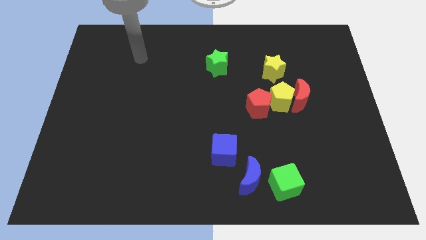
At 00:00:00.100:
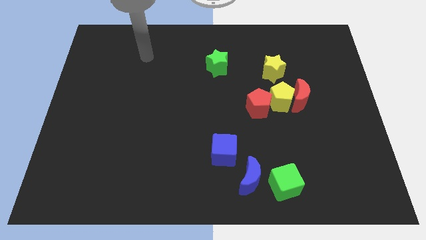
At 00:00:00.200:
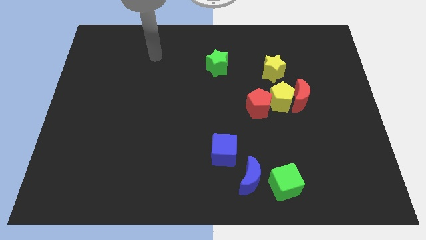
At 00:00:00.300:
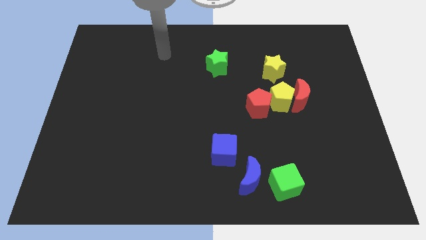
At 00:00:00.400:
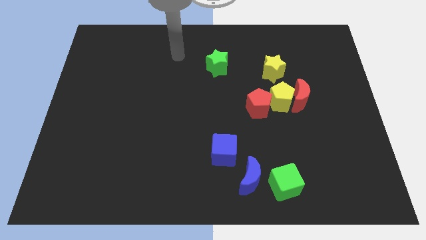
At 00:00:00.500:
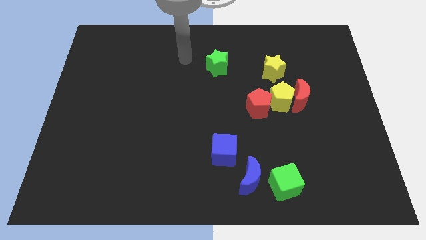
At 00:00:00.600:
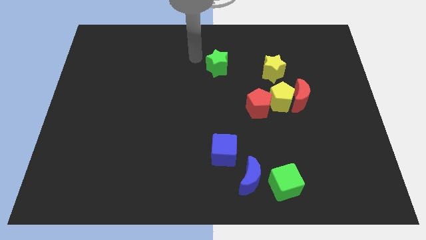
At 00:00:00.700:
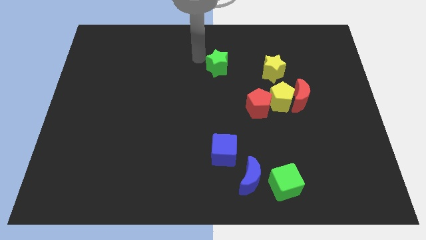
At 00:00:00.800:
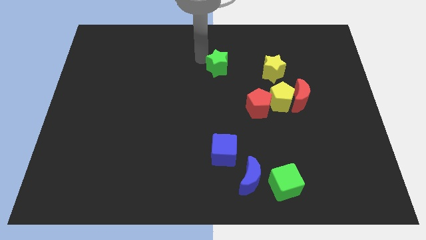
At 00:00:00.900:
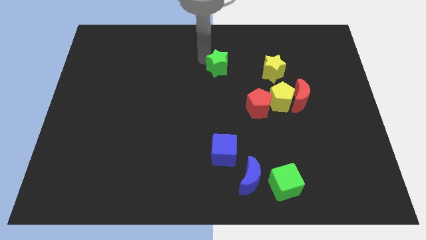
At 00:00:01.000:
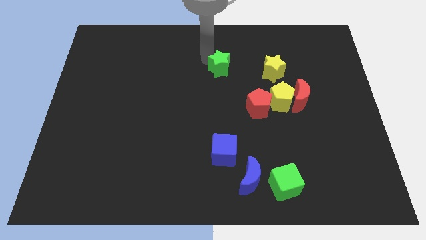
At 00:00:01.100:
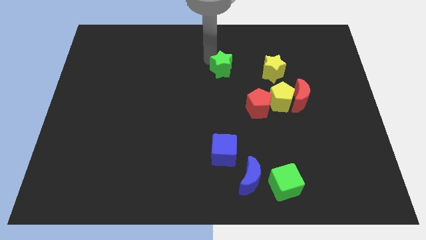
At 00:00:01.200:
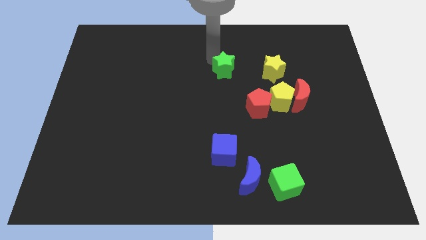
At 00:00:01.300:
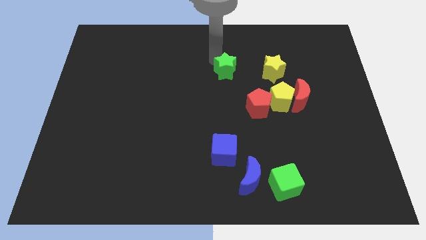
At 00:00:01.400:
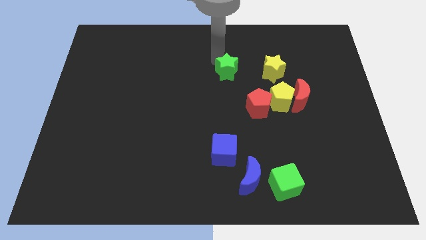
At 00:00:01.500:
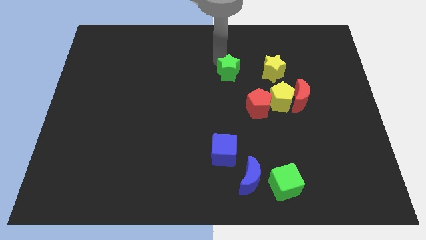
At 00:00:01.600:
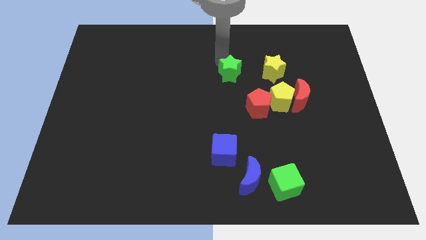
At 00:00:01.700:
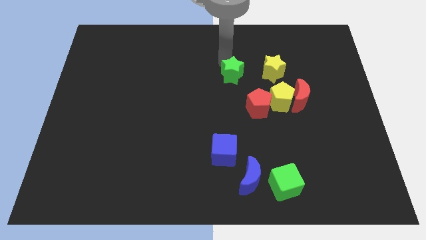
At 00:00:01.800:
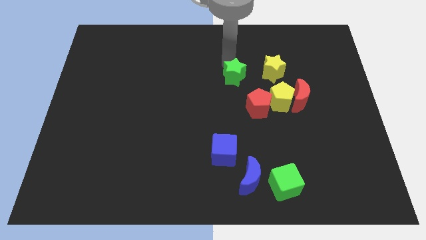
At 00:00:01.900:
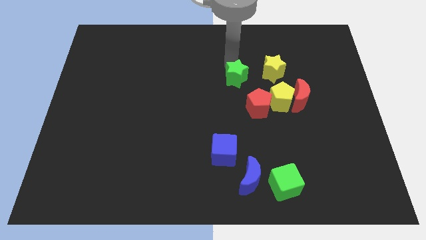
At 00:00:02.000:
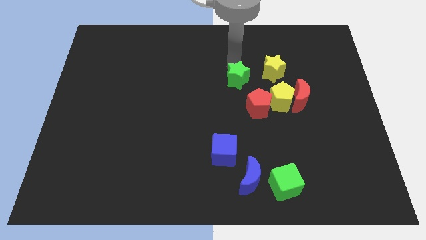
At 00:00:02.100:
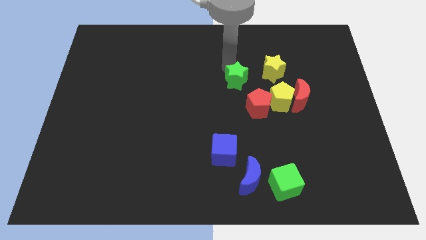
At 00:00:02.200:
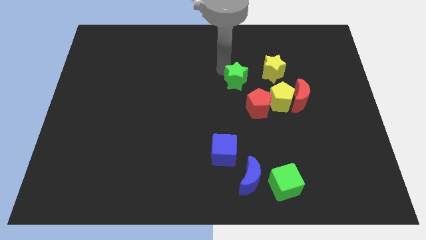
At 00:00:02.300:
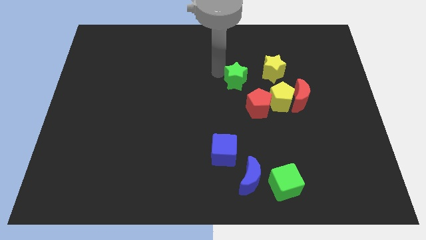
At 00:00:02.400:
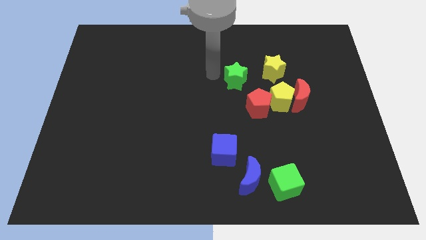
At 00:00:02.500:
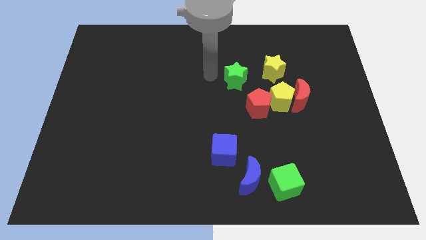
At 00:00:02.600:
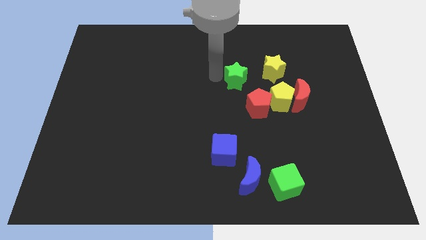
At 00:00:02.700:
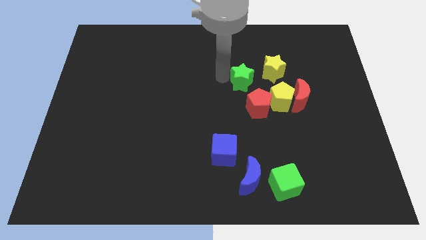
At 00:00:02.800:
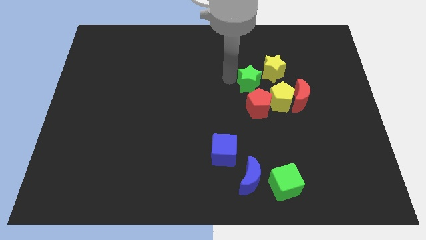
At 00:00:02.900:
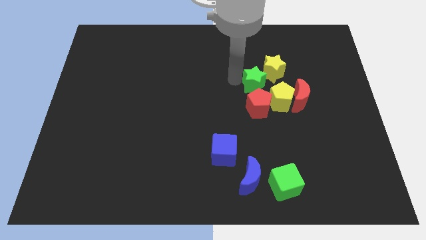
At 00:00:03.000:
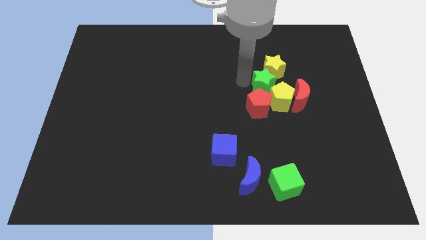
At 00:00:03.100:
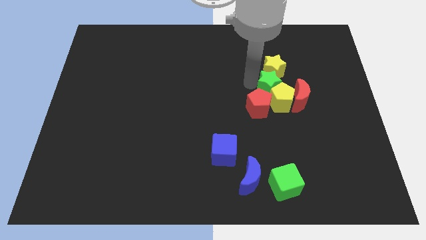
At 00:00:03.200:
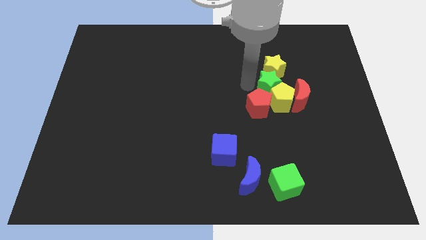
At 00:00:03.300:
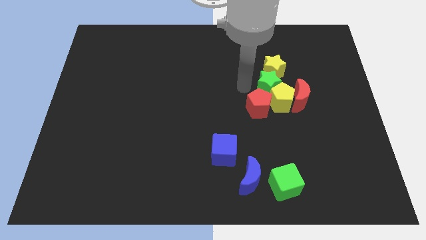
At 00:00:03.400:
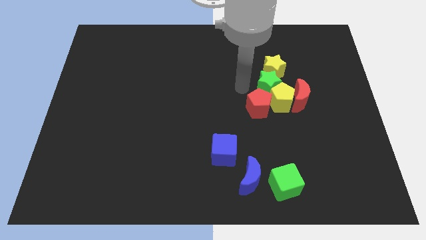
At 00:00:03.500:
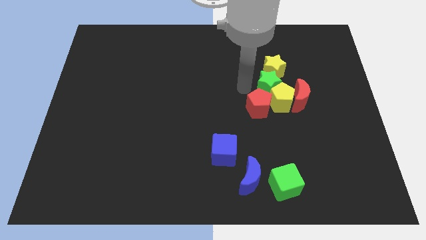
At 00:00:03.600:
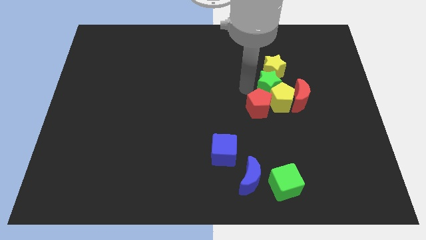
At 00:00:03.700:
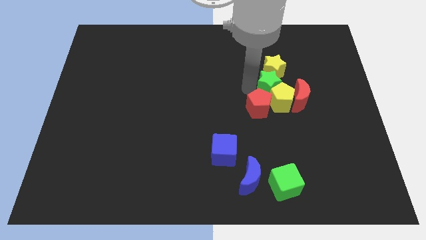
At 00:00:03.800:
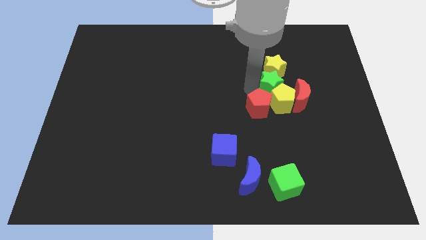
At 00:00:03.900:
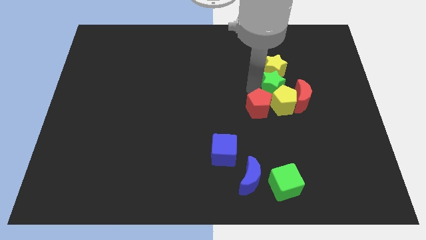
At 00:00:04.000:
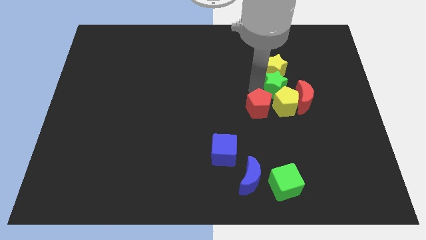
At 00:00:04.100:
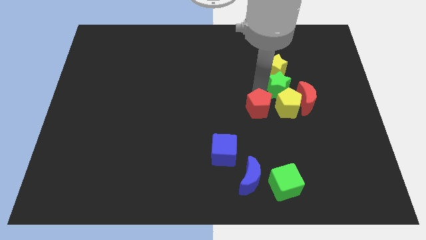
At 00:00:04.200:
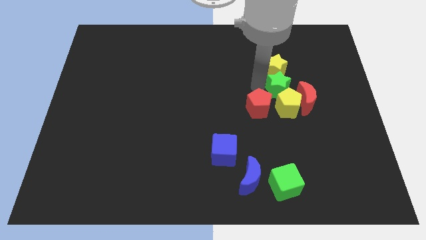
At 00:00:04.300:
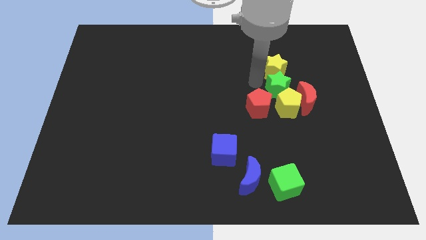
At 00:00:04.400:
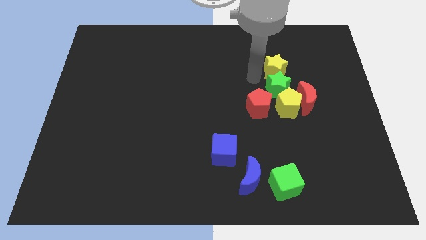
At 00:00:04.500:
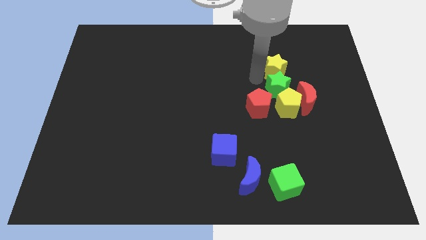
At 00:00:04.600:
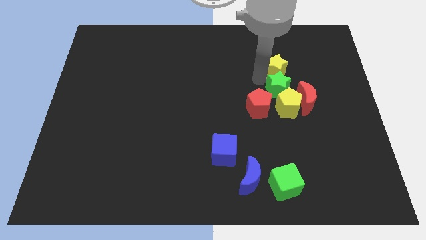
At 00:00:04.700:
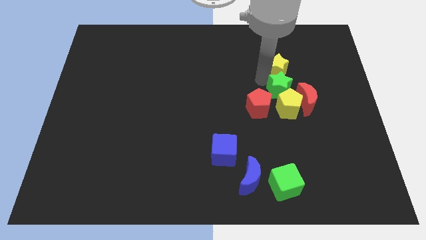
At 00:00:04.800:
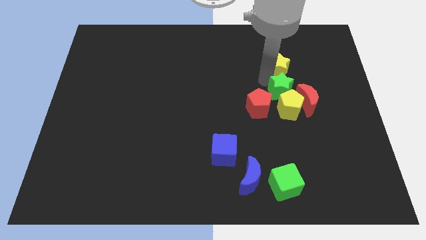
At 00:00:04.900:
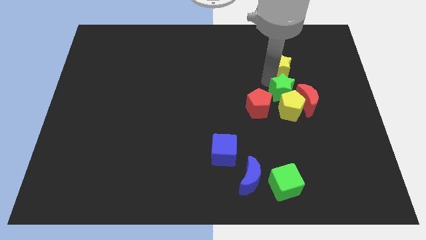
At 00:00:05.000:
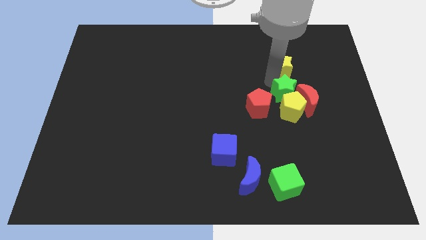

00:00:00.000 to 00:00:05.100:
push the green star close to the red moon

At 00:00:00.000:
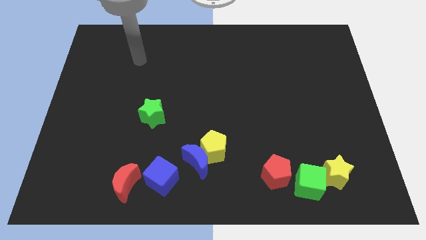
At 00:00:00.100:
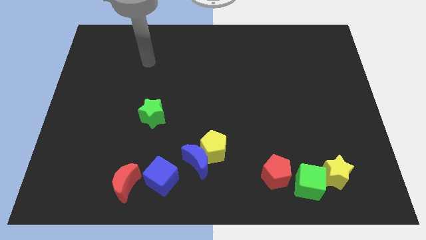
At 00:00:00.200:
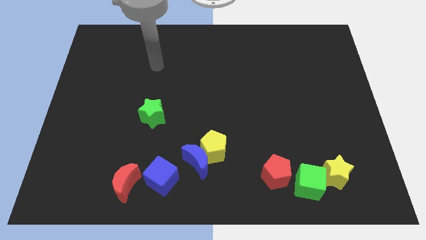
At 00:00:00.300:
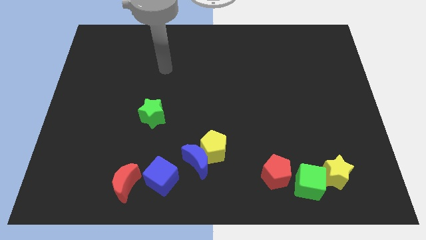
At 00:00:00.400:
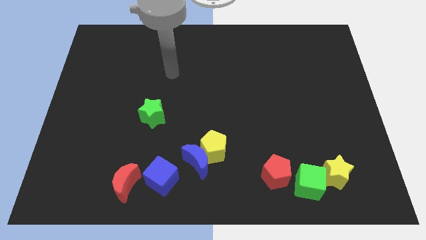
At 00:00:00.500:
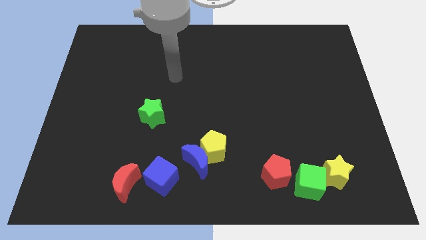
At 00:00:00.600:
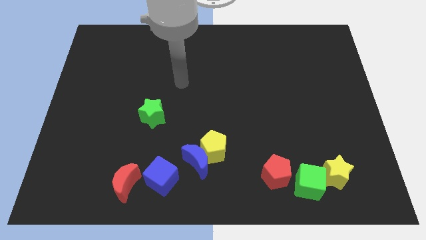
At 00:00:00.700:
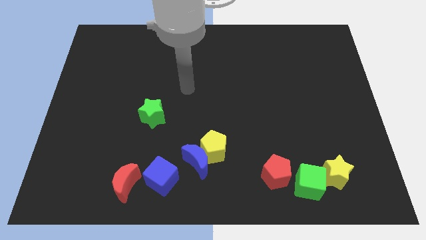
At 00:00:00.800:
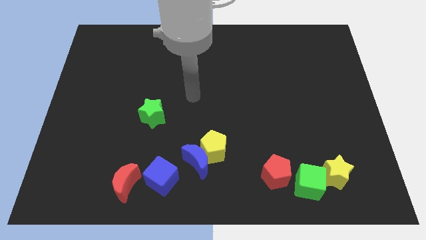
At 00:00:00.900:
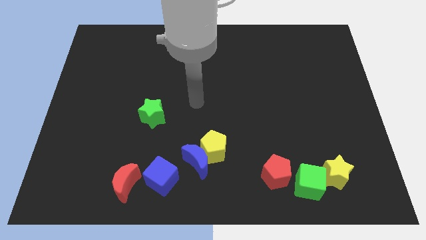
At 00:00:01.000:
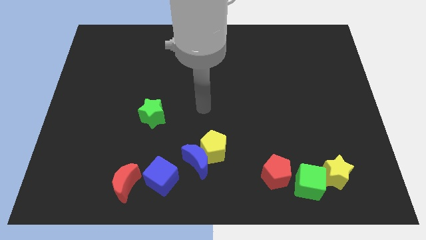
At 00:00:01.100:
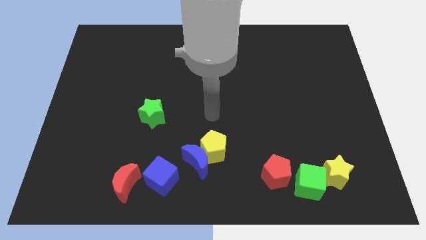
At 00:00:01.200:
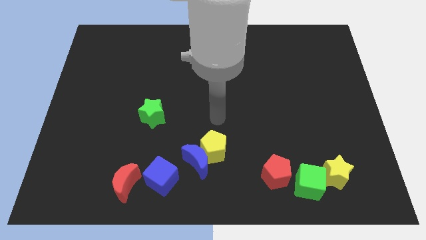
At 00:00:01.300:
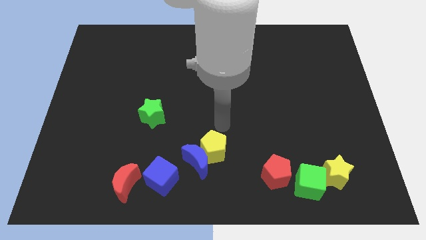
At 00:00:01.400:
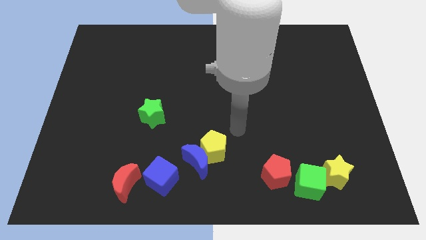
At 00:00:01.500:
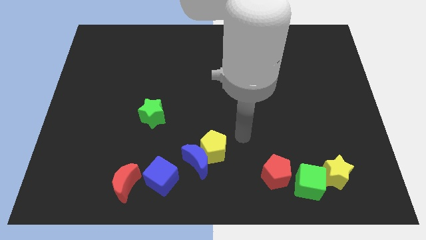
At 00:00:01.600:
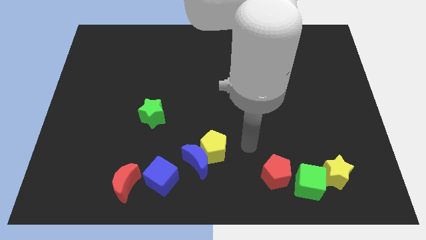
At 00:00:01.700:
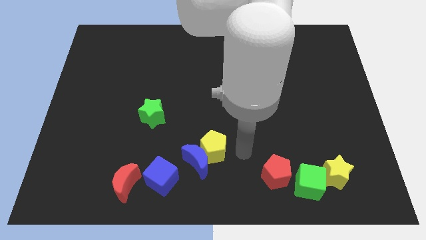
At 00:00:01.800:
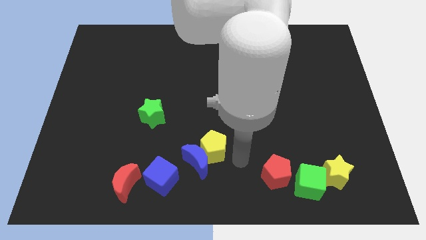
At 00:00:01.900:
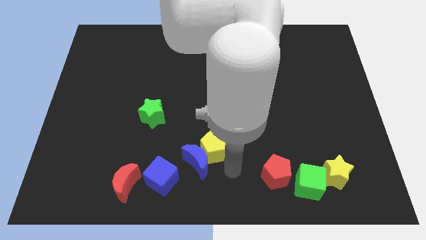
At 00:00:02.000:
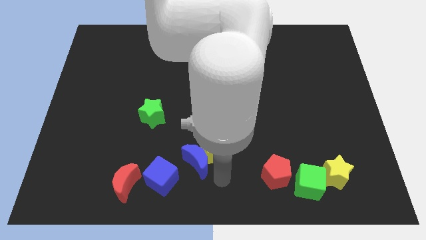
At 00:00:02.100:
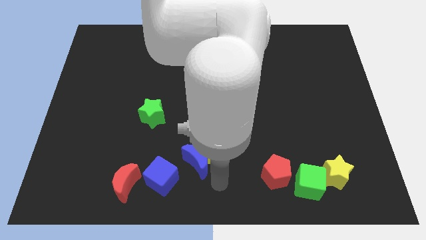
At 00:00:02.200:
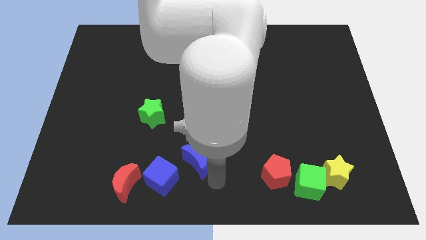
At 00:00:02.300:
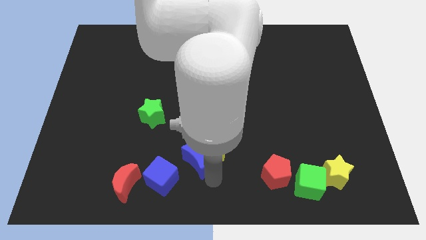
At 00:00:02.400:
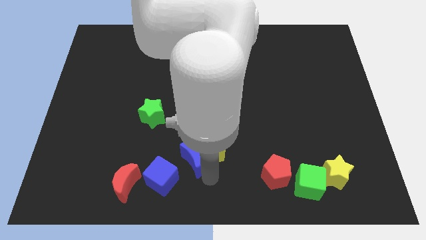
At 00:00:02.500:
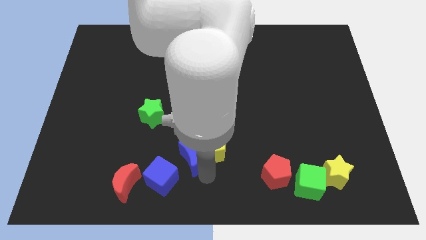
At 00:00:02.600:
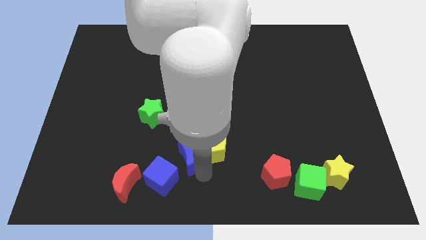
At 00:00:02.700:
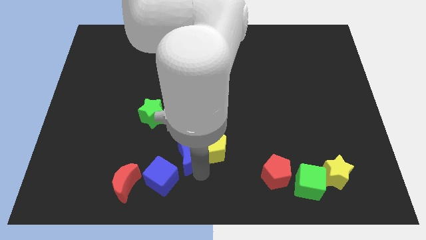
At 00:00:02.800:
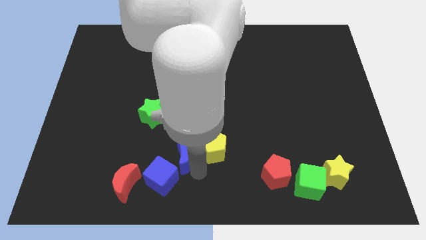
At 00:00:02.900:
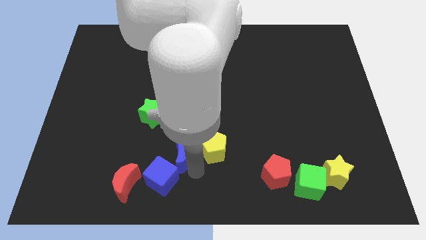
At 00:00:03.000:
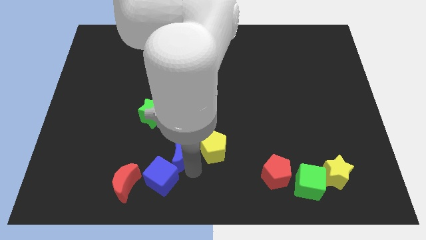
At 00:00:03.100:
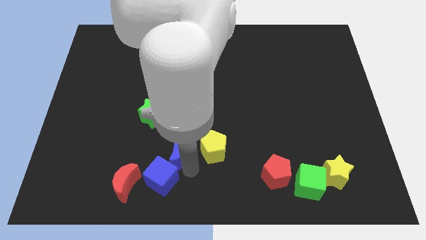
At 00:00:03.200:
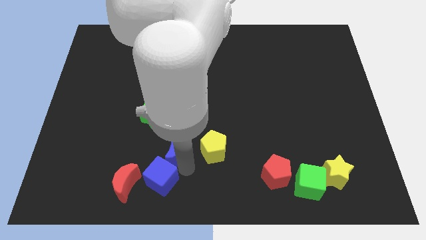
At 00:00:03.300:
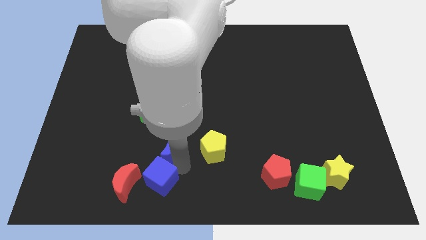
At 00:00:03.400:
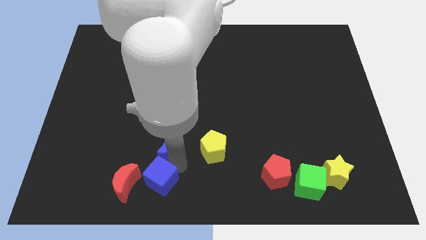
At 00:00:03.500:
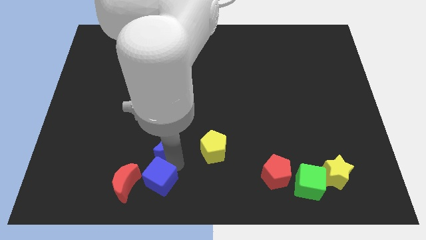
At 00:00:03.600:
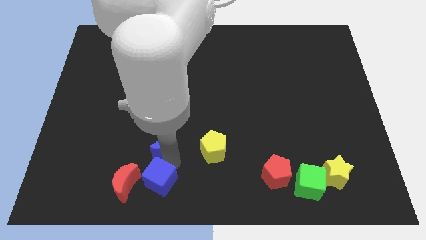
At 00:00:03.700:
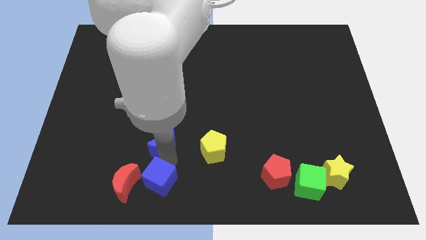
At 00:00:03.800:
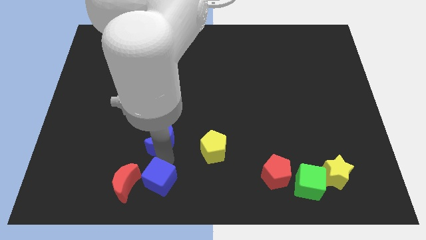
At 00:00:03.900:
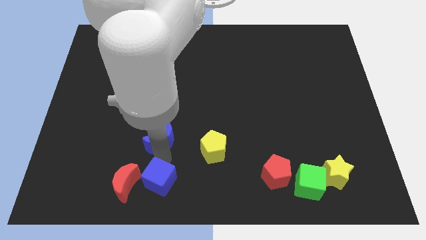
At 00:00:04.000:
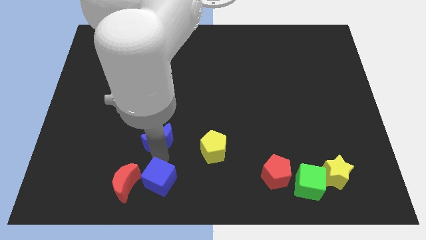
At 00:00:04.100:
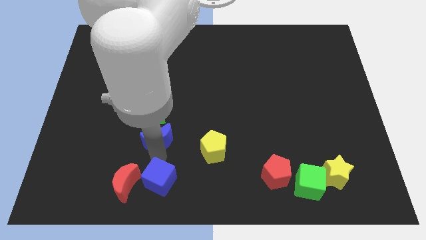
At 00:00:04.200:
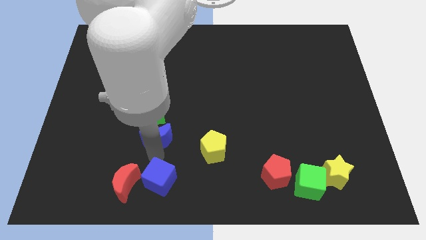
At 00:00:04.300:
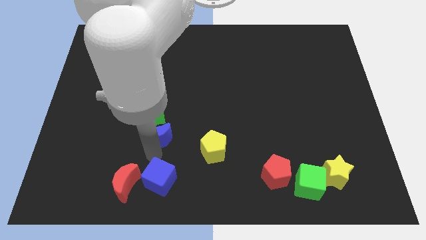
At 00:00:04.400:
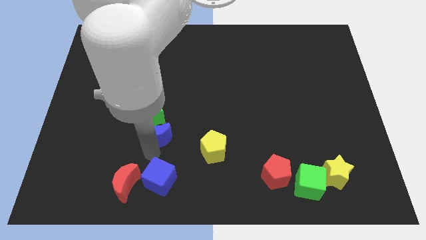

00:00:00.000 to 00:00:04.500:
push the blue moon close to the green star
